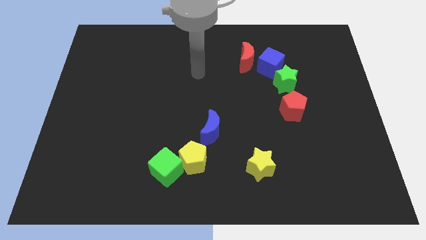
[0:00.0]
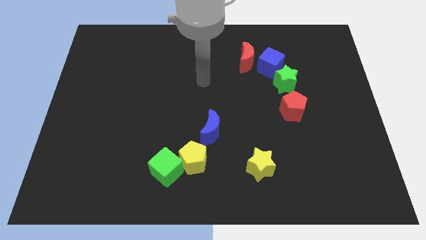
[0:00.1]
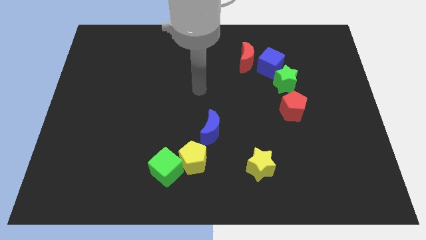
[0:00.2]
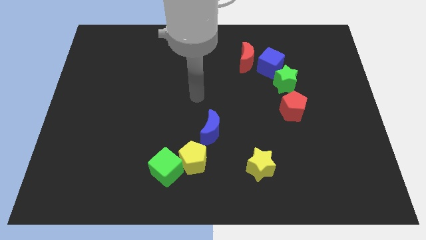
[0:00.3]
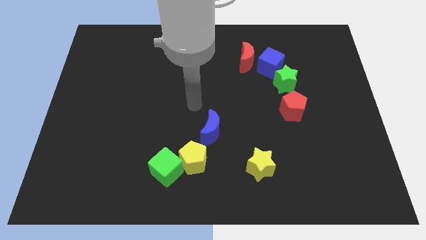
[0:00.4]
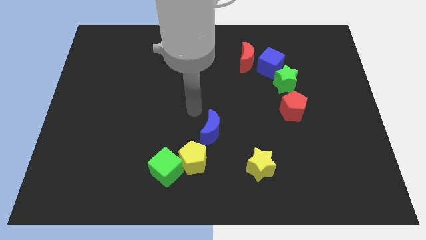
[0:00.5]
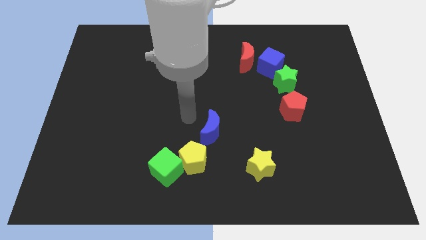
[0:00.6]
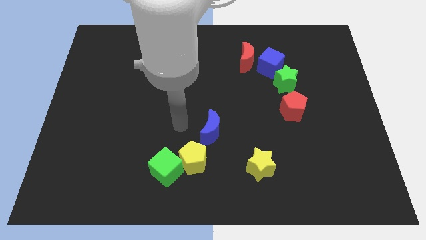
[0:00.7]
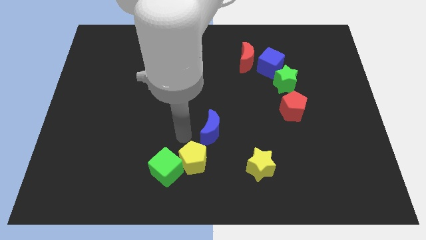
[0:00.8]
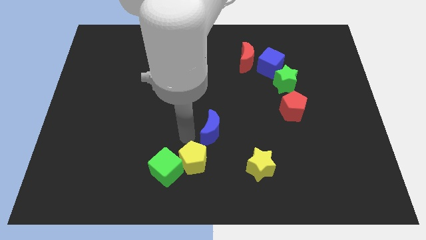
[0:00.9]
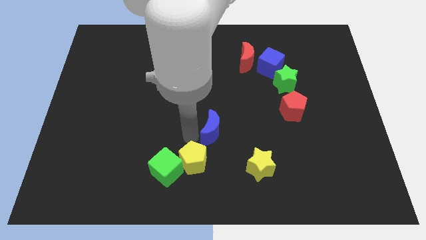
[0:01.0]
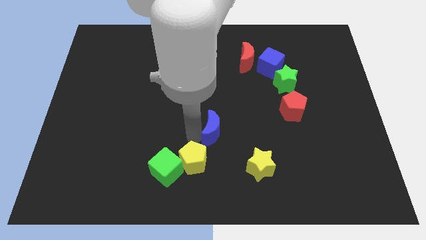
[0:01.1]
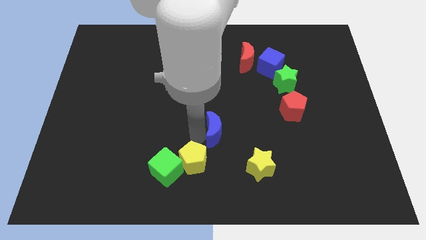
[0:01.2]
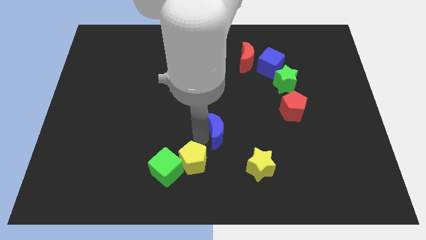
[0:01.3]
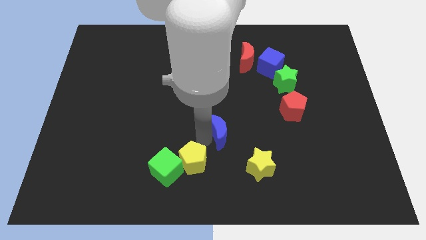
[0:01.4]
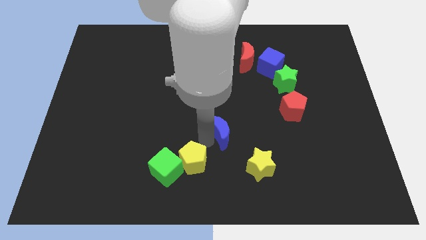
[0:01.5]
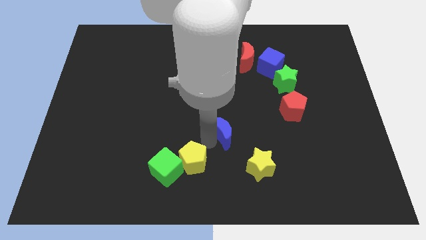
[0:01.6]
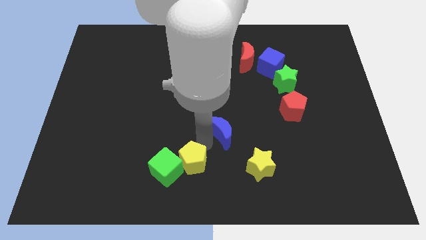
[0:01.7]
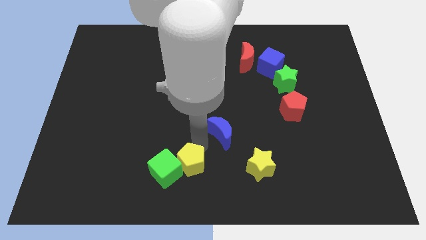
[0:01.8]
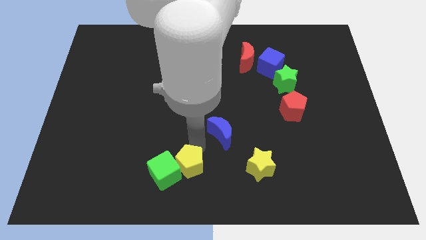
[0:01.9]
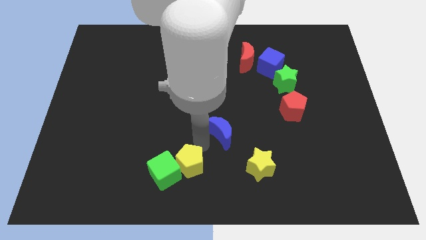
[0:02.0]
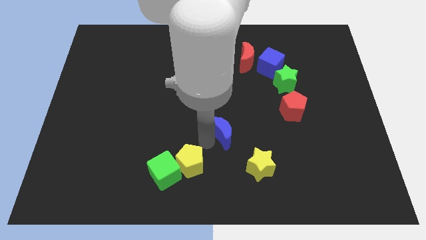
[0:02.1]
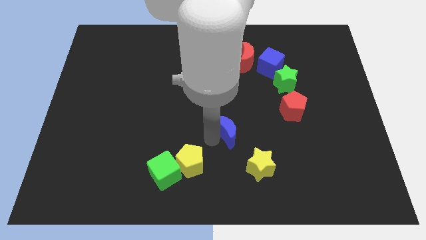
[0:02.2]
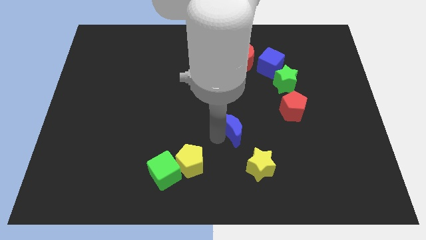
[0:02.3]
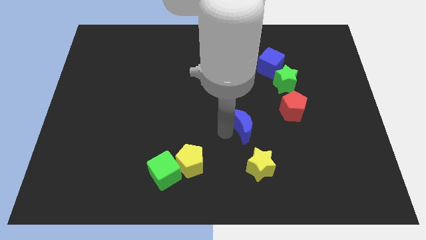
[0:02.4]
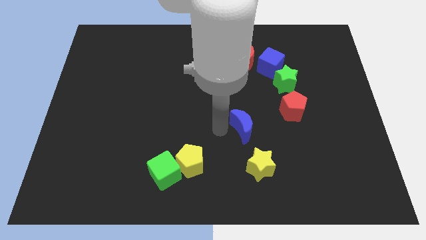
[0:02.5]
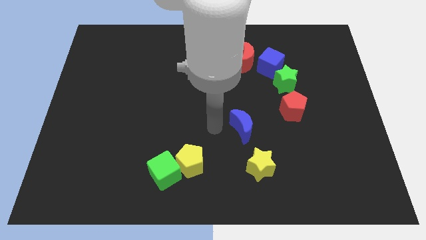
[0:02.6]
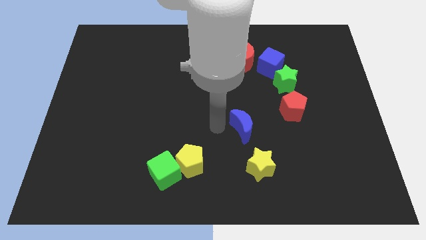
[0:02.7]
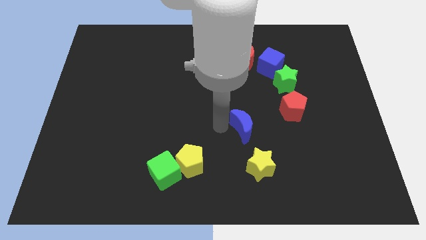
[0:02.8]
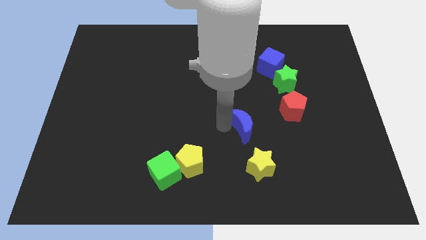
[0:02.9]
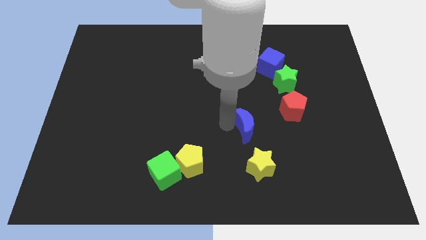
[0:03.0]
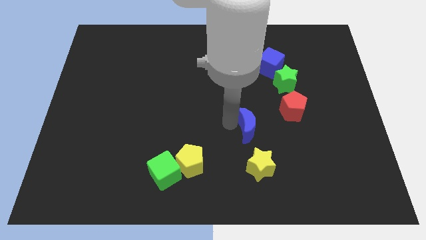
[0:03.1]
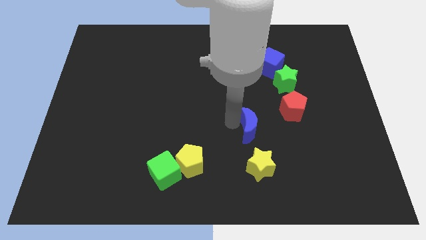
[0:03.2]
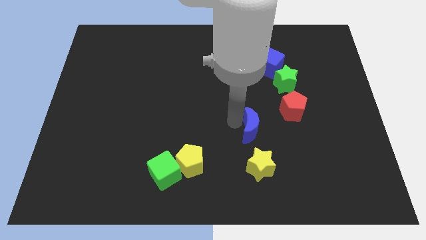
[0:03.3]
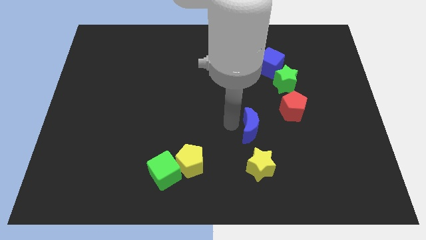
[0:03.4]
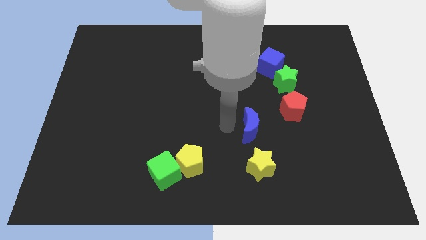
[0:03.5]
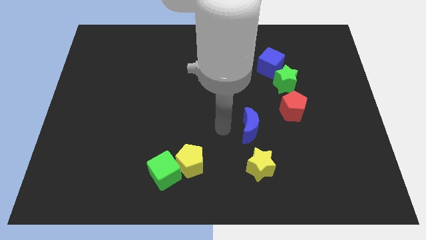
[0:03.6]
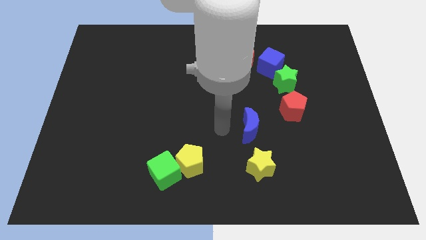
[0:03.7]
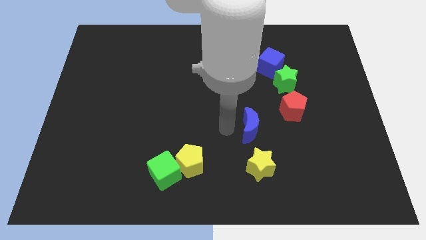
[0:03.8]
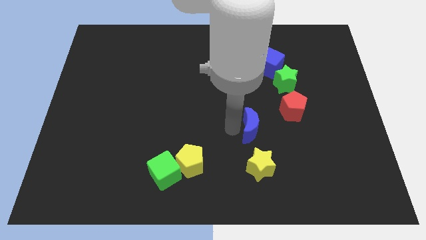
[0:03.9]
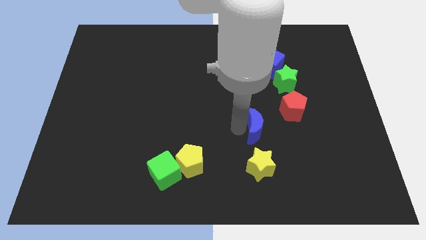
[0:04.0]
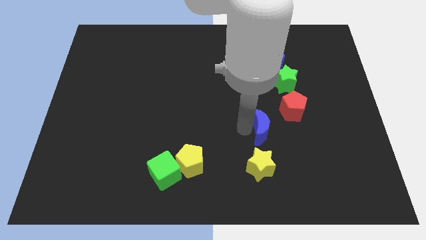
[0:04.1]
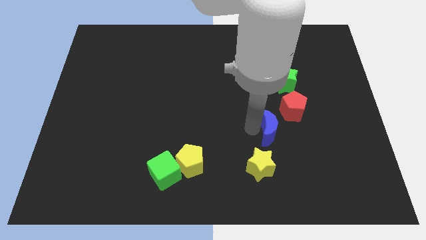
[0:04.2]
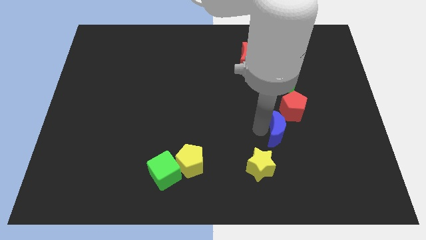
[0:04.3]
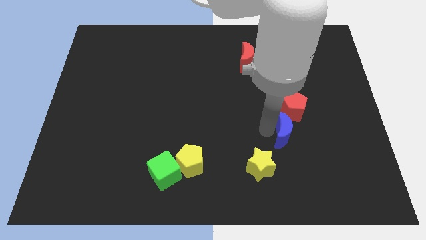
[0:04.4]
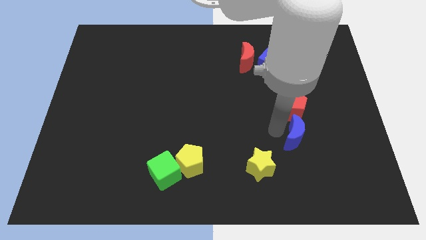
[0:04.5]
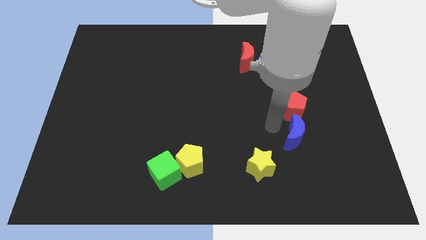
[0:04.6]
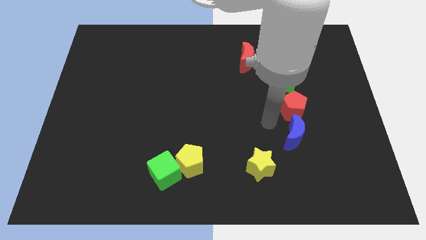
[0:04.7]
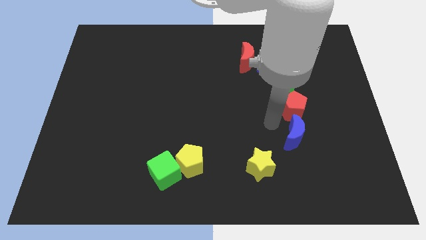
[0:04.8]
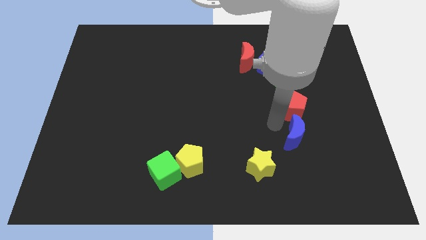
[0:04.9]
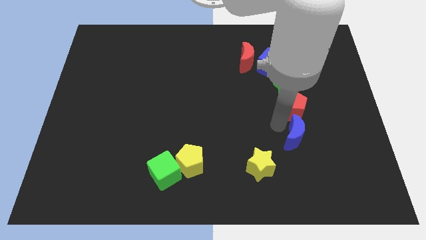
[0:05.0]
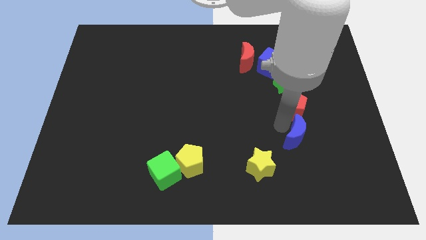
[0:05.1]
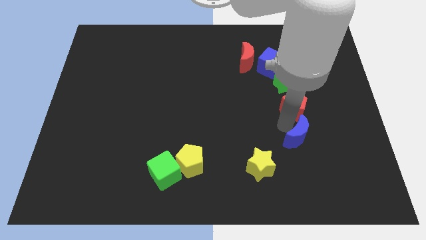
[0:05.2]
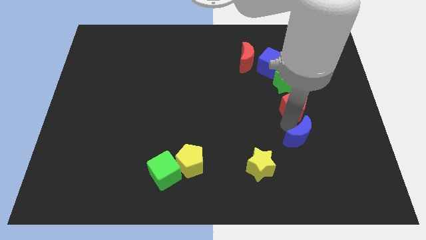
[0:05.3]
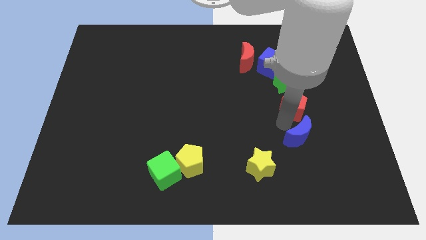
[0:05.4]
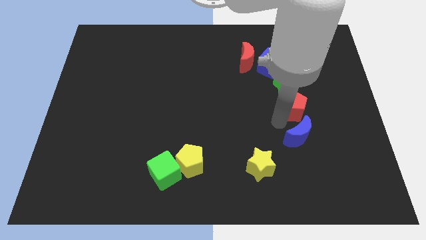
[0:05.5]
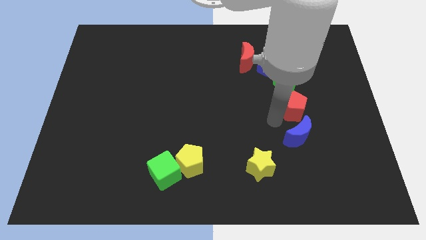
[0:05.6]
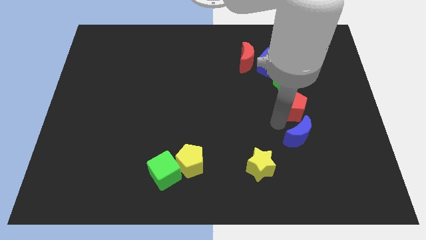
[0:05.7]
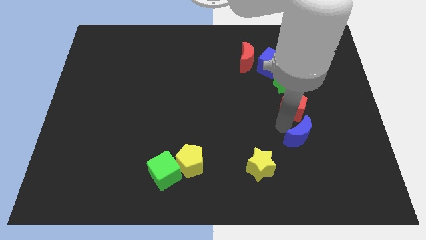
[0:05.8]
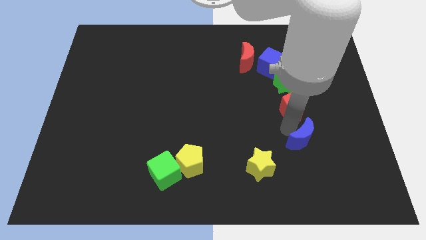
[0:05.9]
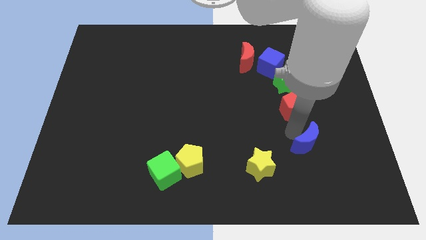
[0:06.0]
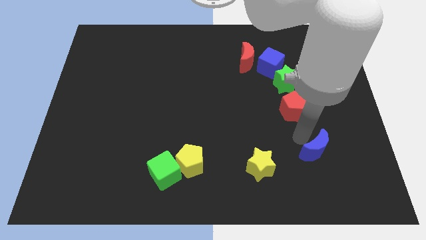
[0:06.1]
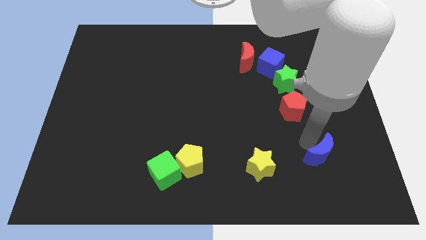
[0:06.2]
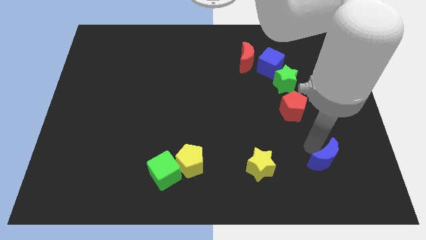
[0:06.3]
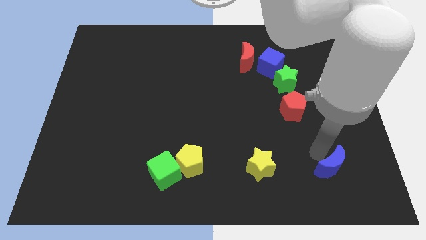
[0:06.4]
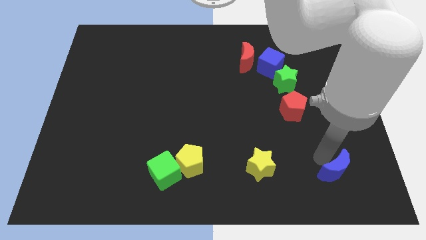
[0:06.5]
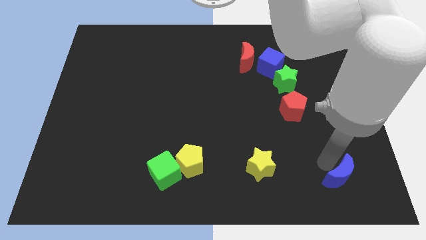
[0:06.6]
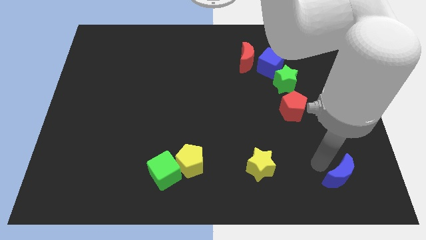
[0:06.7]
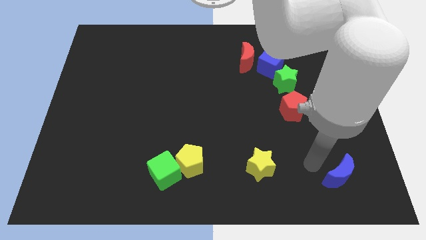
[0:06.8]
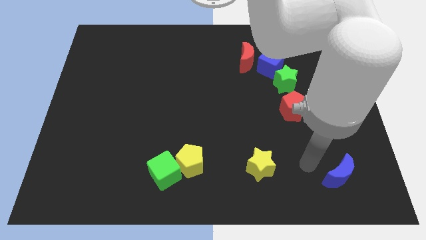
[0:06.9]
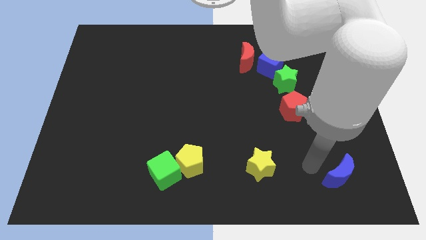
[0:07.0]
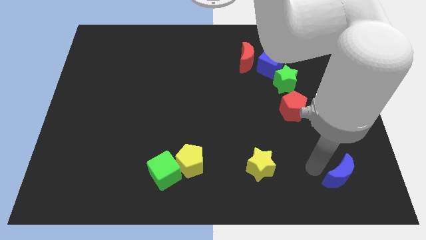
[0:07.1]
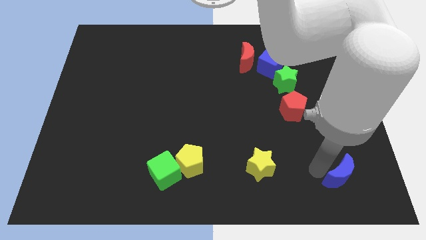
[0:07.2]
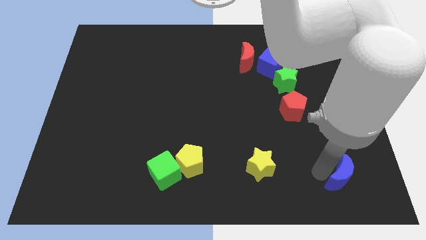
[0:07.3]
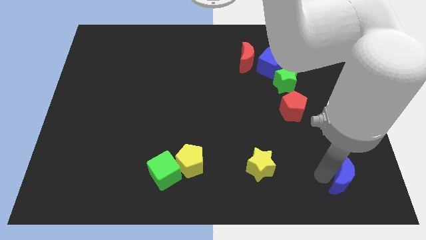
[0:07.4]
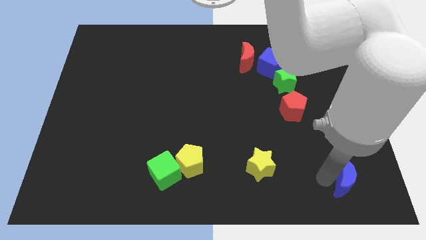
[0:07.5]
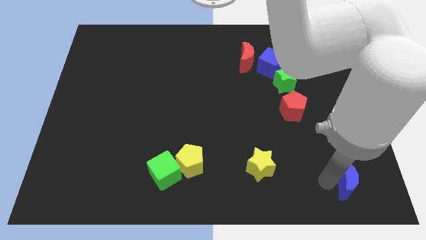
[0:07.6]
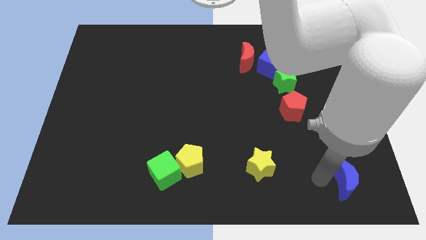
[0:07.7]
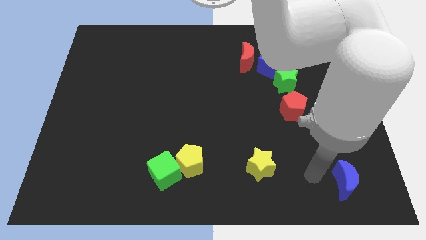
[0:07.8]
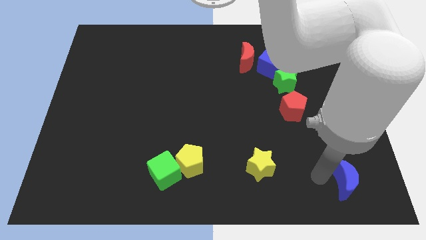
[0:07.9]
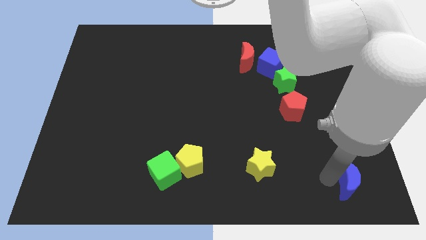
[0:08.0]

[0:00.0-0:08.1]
push the blue moon to the bottom right of the board
